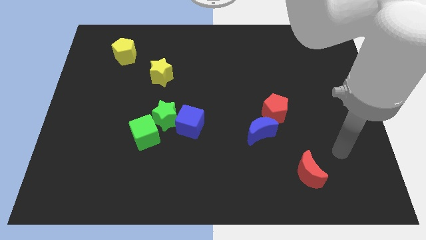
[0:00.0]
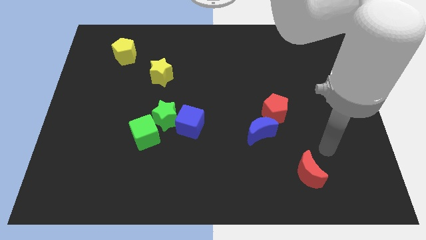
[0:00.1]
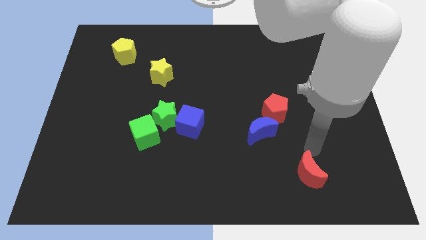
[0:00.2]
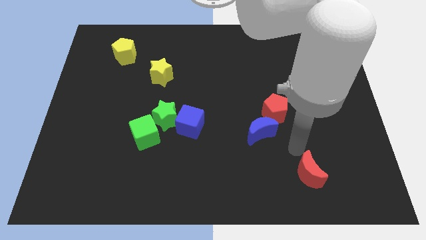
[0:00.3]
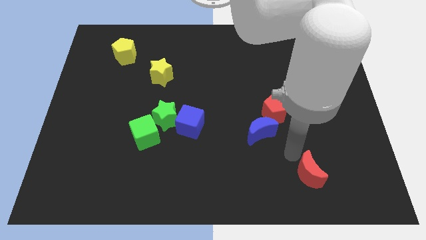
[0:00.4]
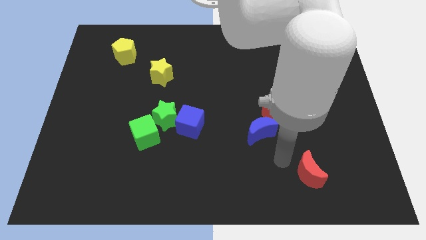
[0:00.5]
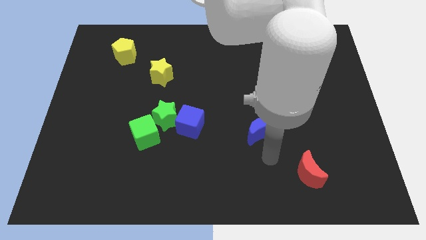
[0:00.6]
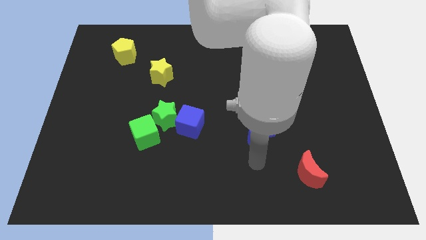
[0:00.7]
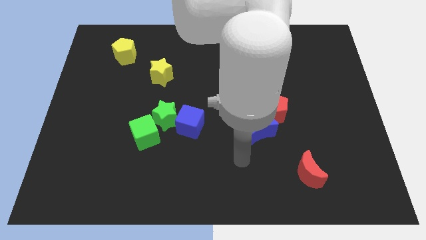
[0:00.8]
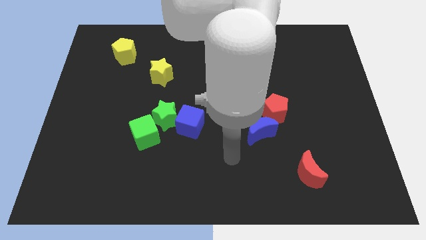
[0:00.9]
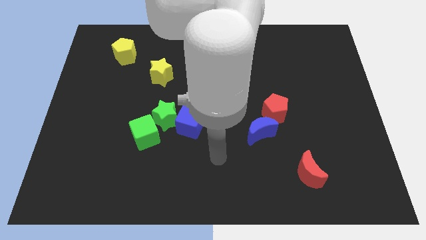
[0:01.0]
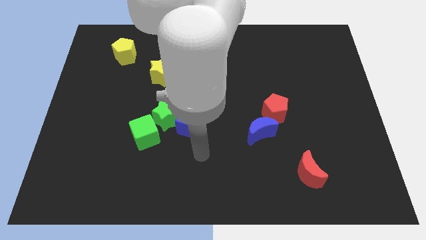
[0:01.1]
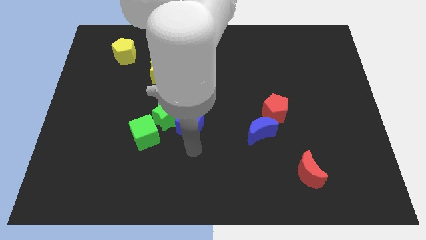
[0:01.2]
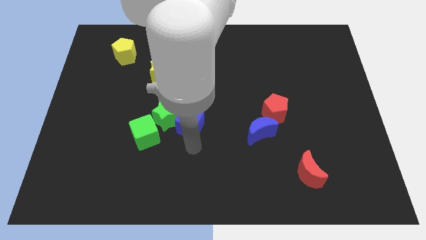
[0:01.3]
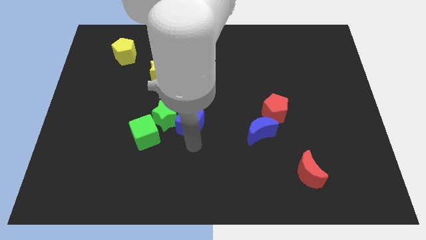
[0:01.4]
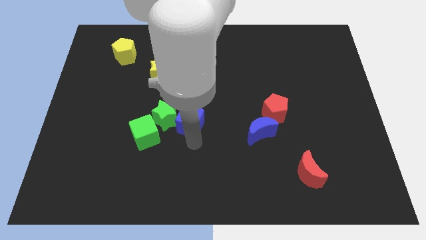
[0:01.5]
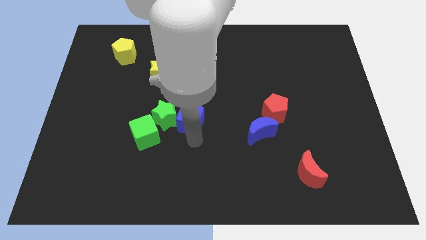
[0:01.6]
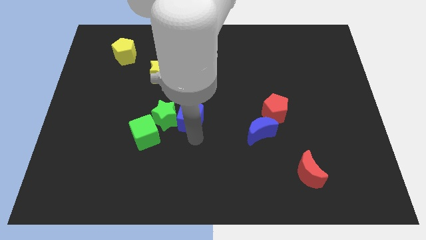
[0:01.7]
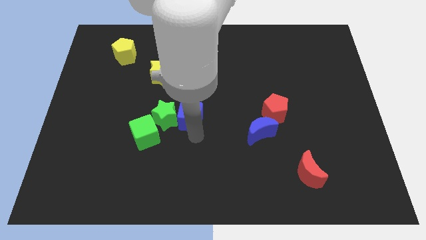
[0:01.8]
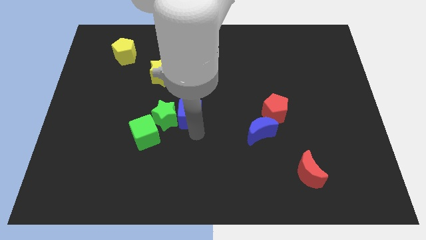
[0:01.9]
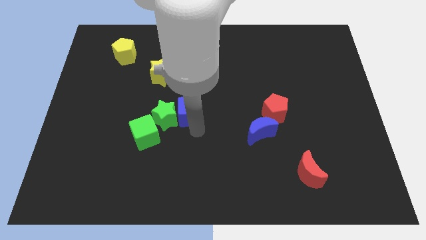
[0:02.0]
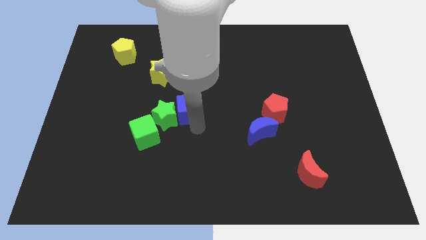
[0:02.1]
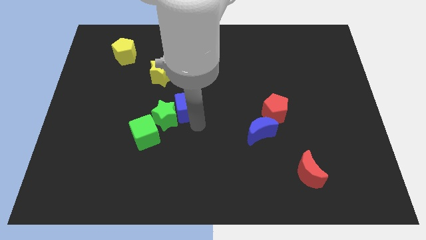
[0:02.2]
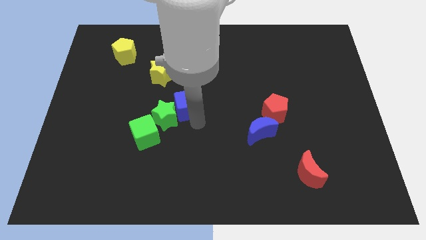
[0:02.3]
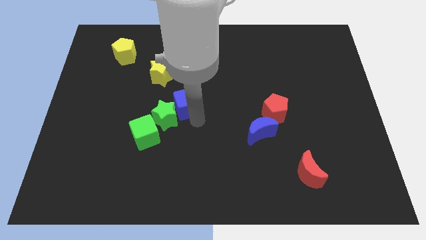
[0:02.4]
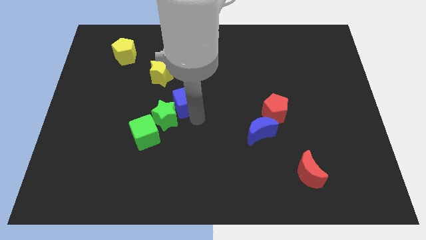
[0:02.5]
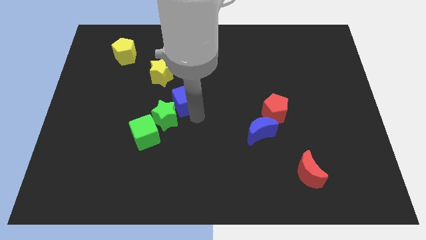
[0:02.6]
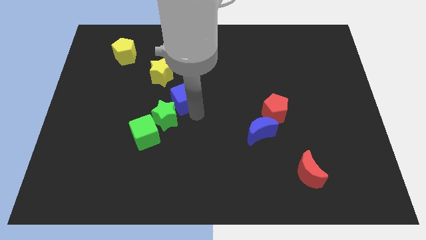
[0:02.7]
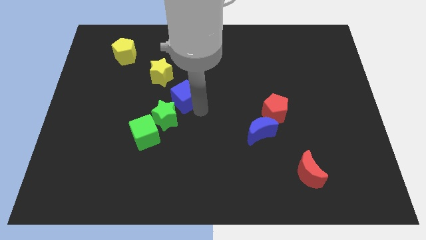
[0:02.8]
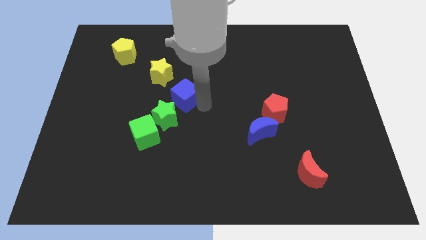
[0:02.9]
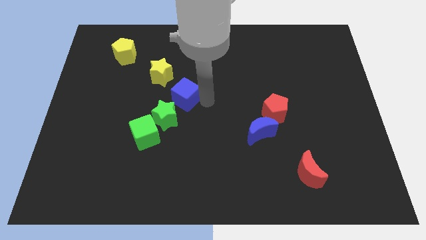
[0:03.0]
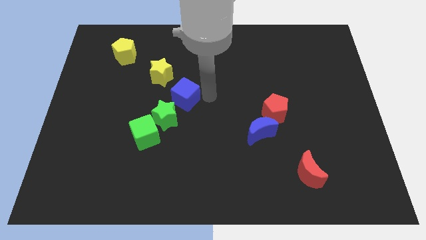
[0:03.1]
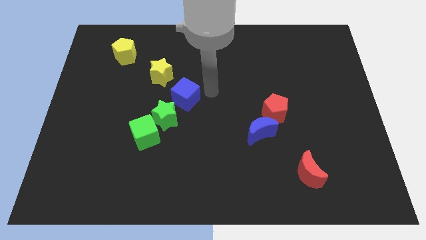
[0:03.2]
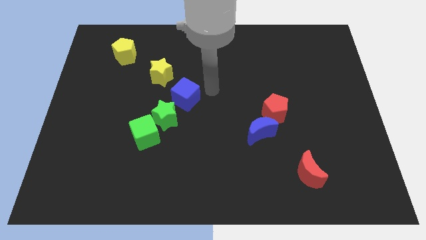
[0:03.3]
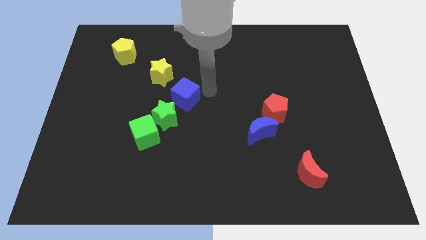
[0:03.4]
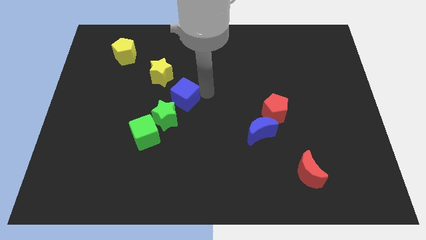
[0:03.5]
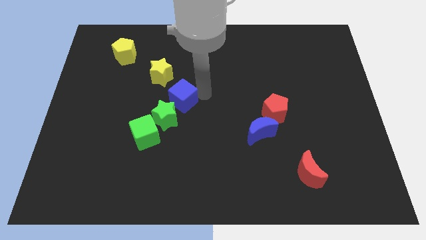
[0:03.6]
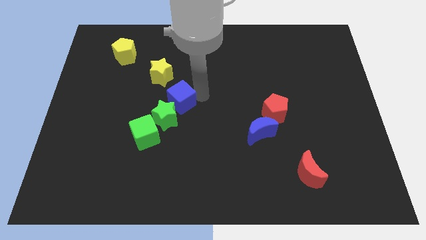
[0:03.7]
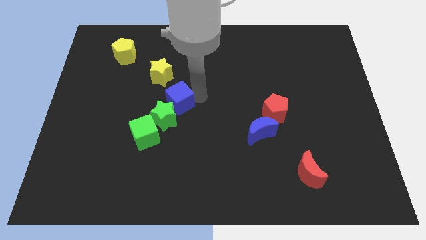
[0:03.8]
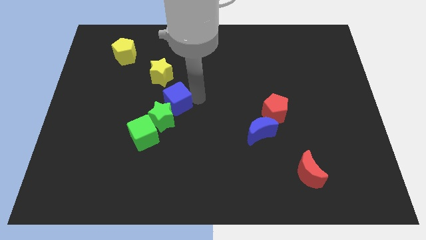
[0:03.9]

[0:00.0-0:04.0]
slightly slide the blue cube up and then to the left

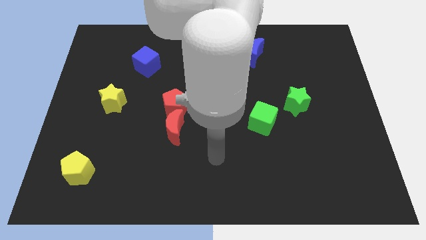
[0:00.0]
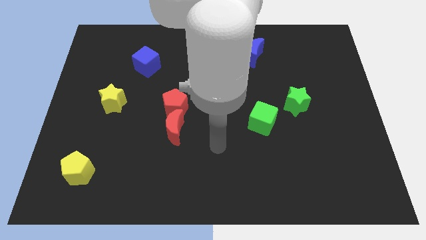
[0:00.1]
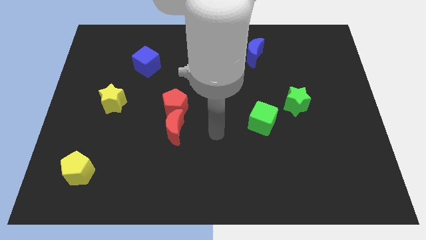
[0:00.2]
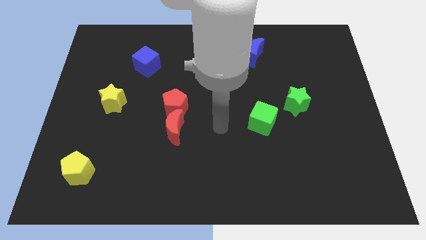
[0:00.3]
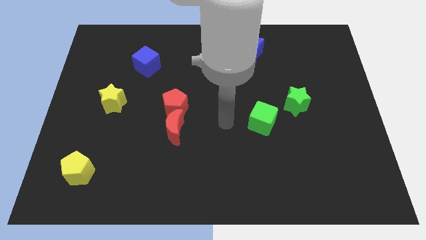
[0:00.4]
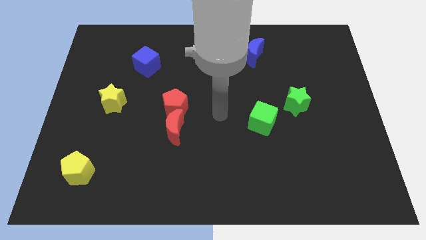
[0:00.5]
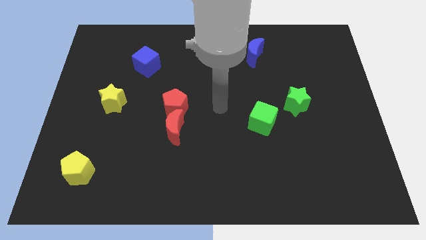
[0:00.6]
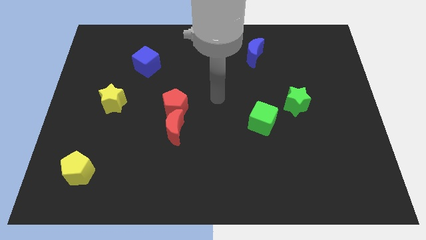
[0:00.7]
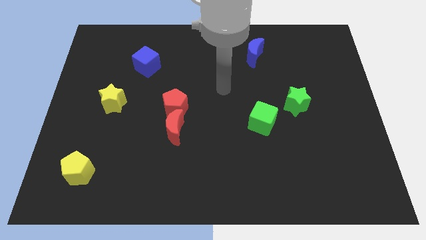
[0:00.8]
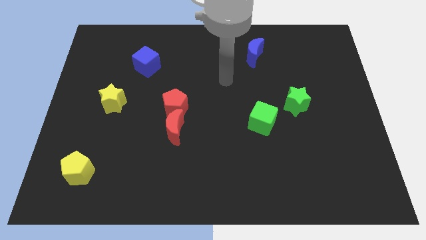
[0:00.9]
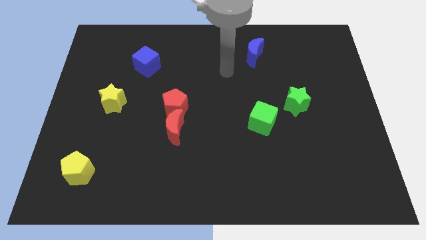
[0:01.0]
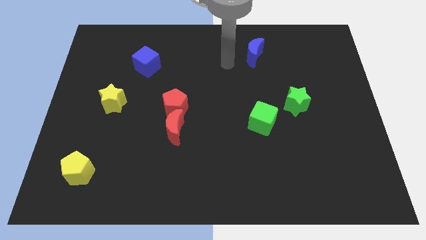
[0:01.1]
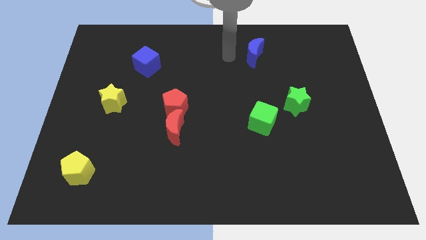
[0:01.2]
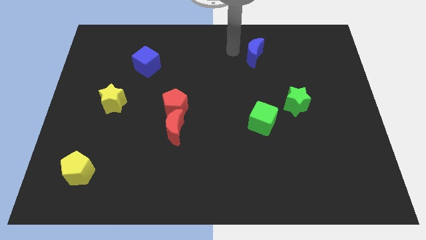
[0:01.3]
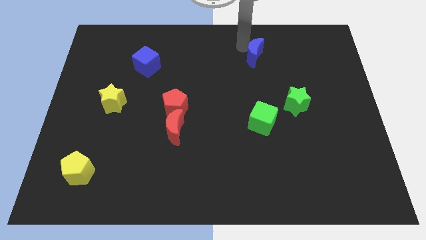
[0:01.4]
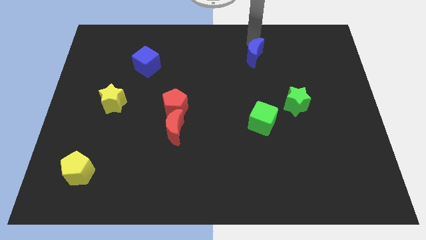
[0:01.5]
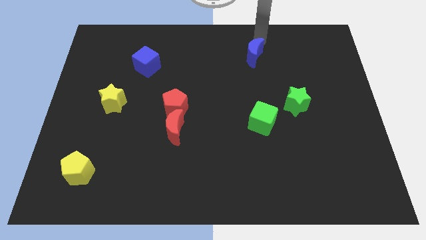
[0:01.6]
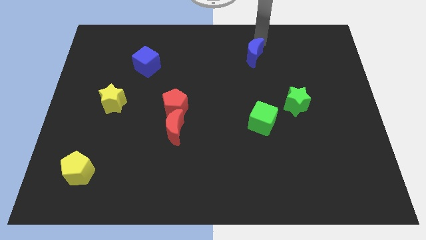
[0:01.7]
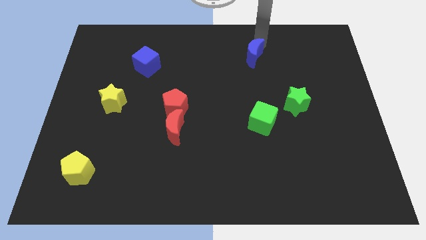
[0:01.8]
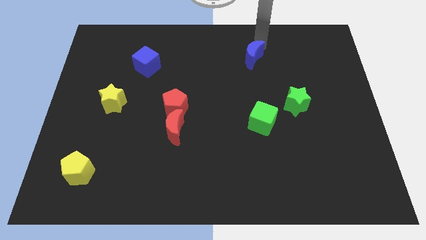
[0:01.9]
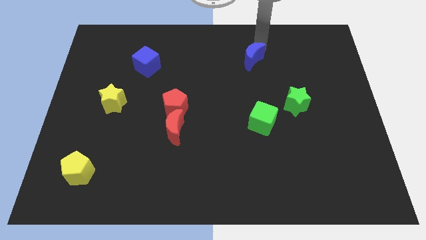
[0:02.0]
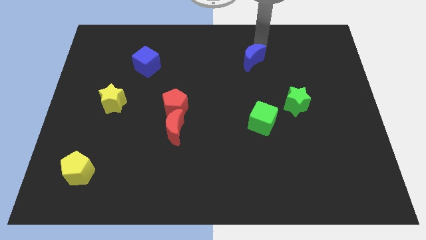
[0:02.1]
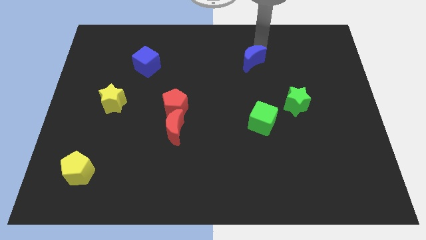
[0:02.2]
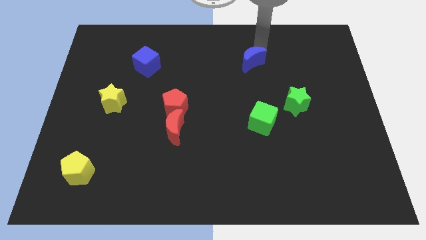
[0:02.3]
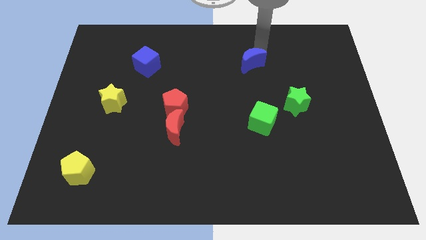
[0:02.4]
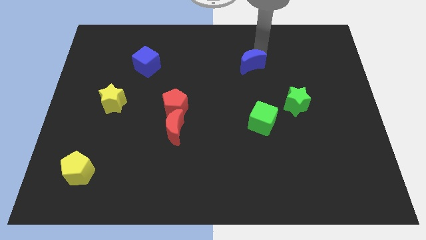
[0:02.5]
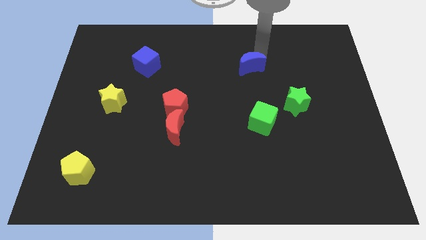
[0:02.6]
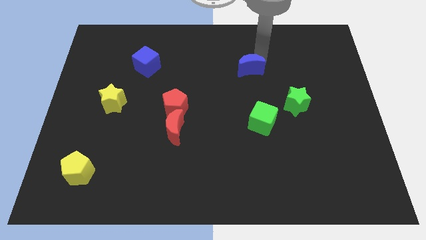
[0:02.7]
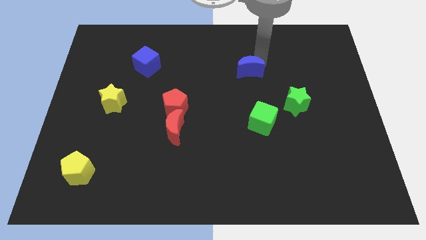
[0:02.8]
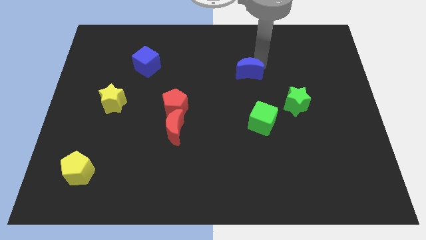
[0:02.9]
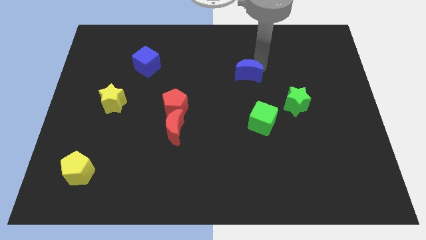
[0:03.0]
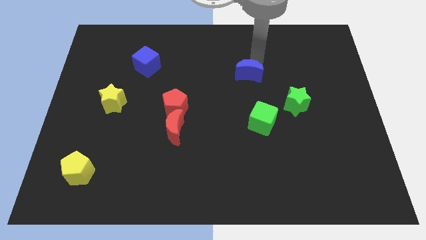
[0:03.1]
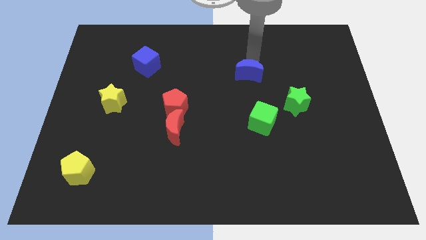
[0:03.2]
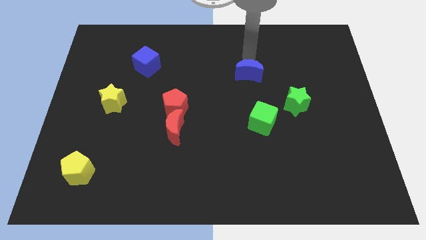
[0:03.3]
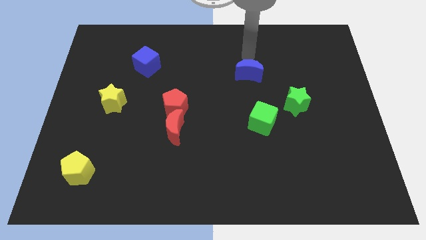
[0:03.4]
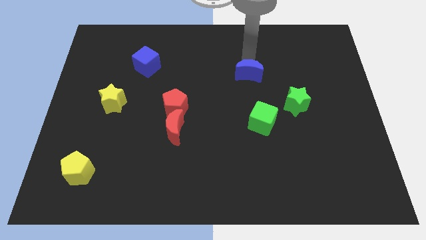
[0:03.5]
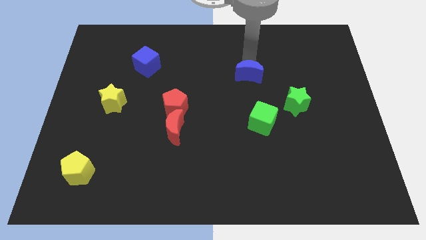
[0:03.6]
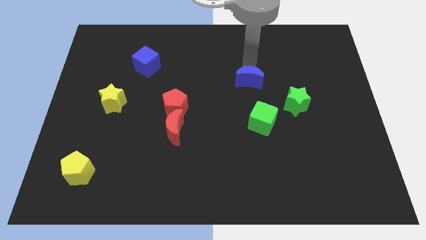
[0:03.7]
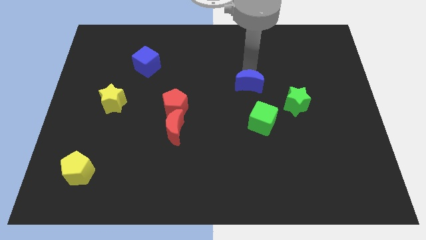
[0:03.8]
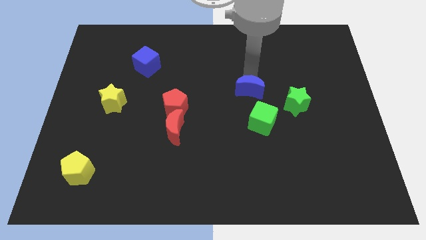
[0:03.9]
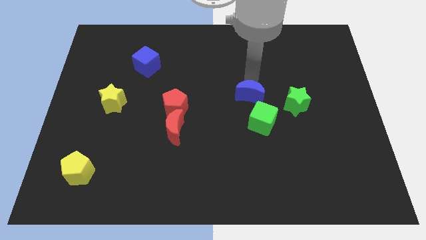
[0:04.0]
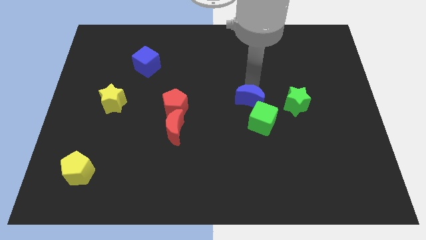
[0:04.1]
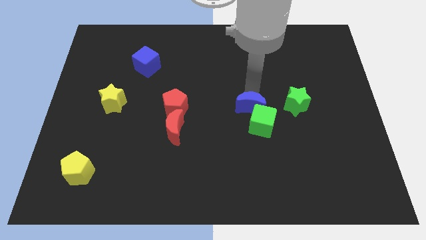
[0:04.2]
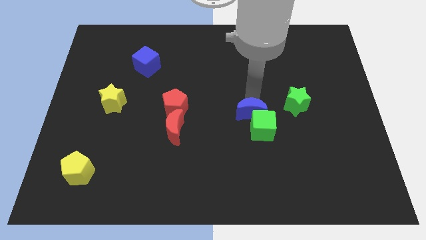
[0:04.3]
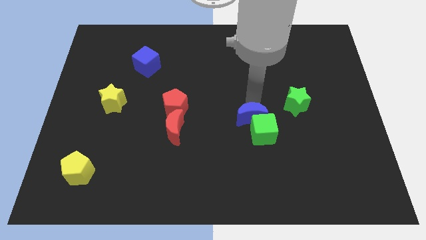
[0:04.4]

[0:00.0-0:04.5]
move the blue moon down

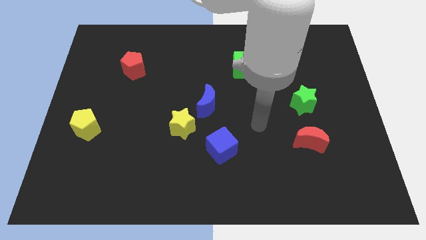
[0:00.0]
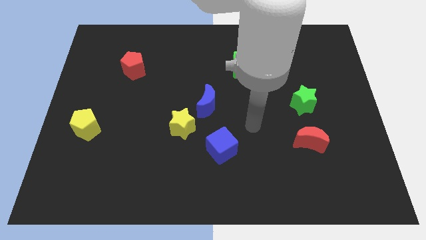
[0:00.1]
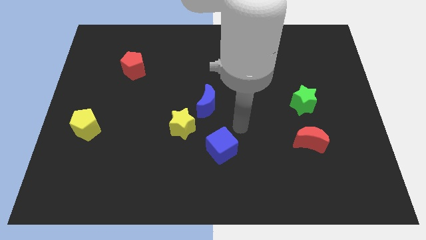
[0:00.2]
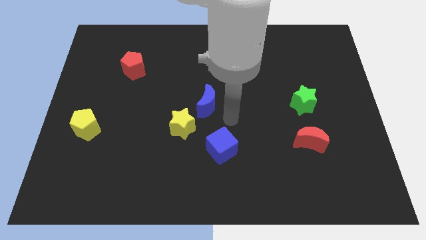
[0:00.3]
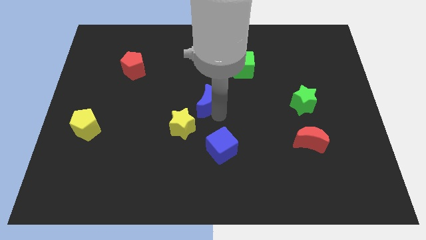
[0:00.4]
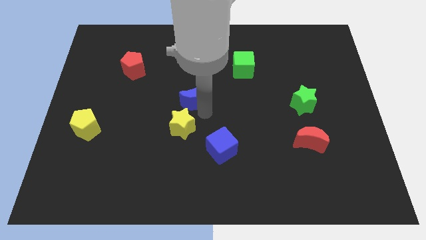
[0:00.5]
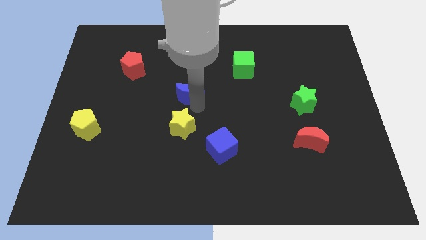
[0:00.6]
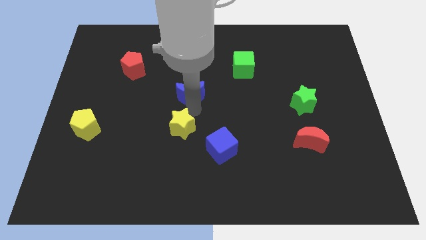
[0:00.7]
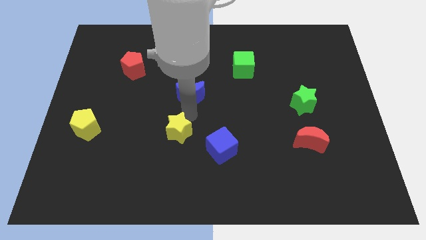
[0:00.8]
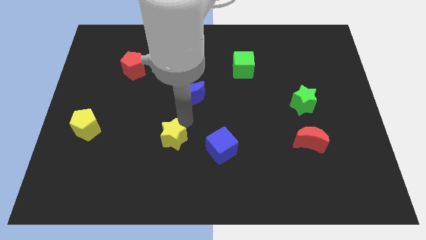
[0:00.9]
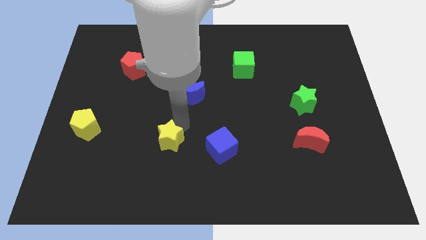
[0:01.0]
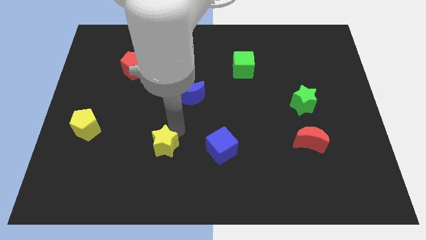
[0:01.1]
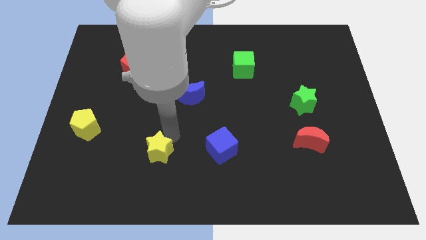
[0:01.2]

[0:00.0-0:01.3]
push the yellow star slightly diagonally down and left
